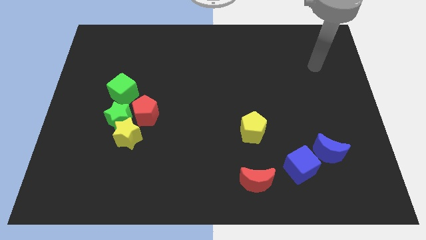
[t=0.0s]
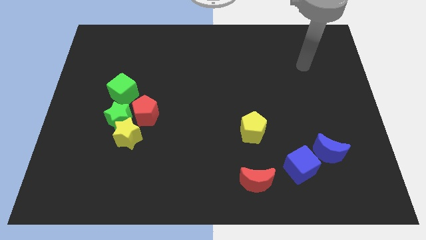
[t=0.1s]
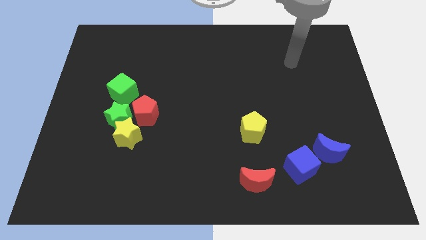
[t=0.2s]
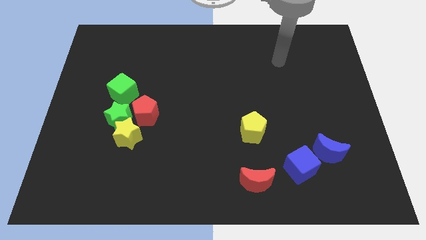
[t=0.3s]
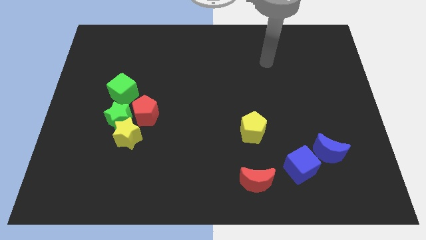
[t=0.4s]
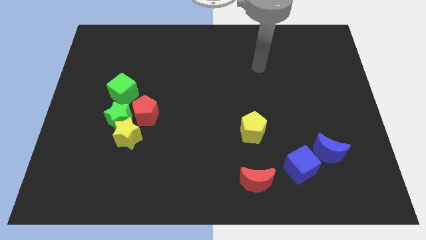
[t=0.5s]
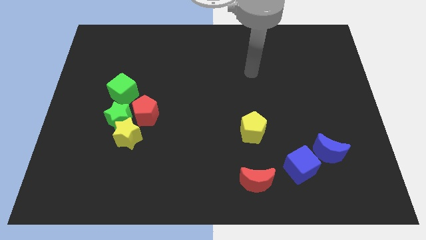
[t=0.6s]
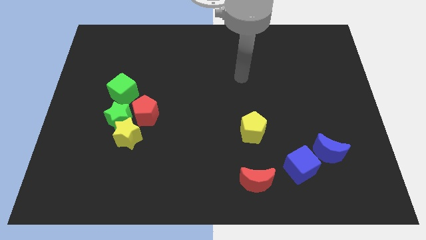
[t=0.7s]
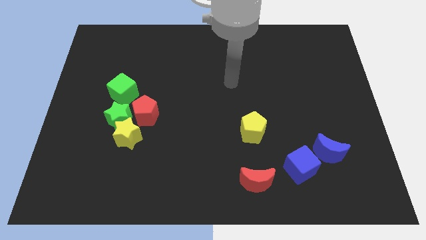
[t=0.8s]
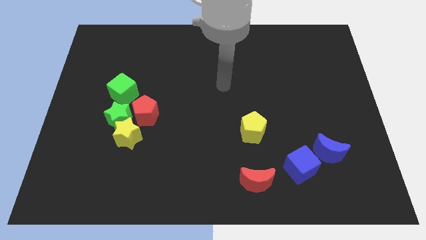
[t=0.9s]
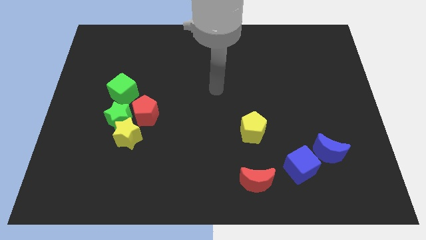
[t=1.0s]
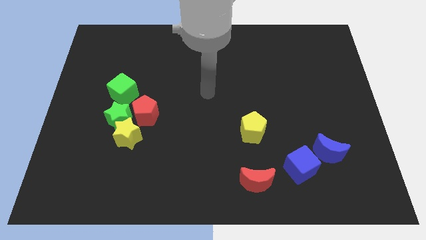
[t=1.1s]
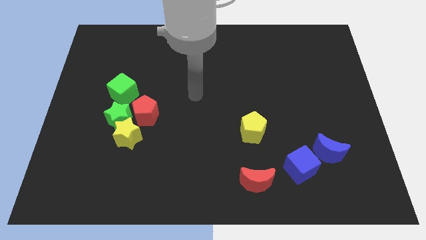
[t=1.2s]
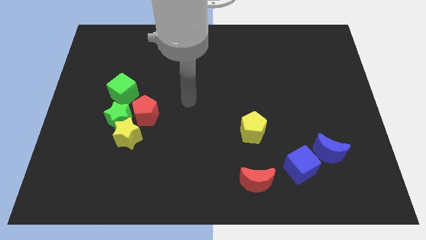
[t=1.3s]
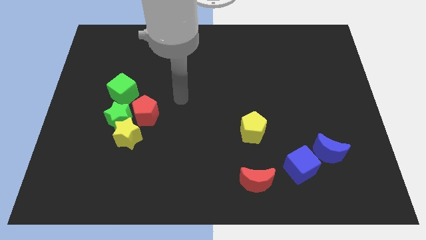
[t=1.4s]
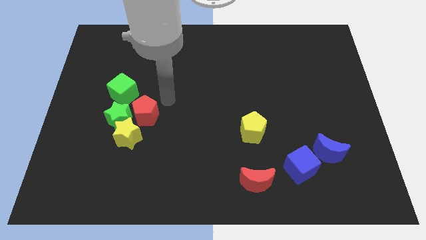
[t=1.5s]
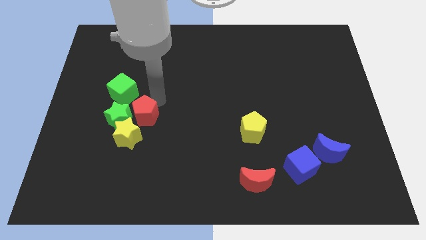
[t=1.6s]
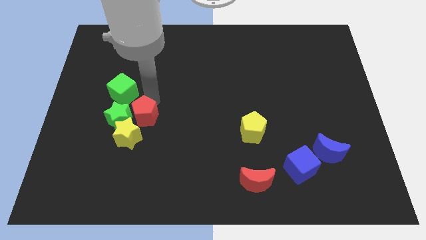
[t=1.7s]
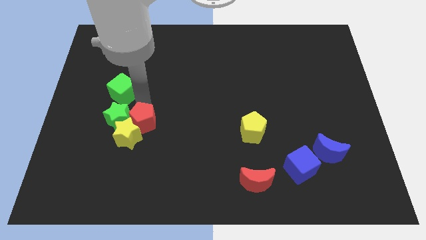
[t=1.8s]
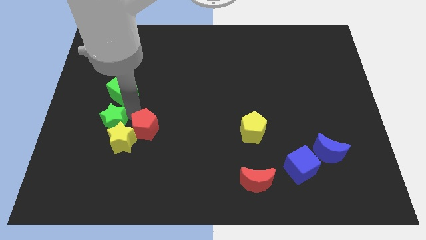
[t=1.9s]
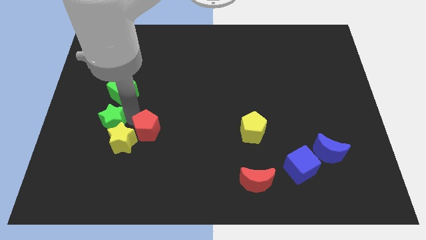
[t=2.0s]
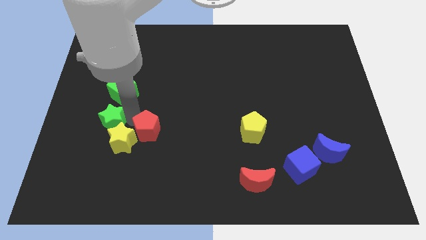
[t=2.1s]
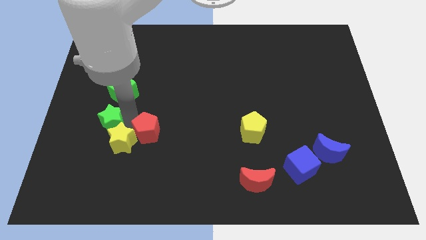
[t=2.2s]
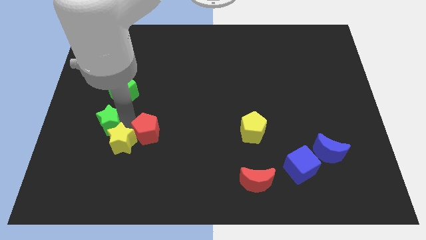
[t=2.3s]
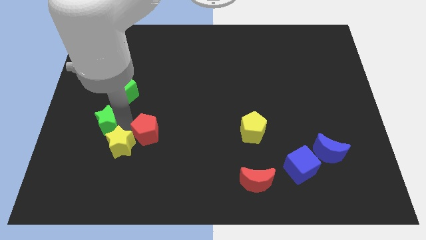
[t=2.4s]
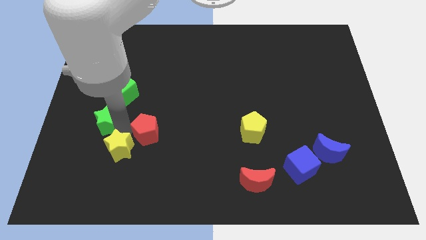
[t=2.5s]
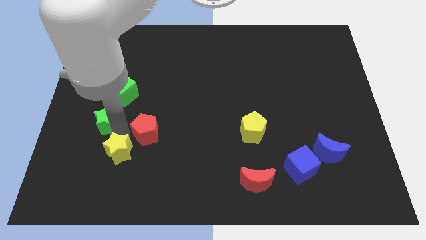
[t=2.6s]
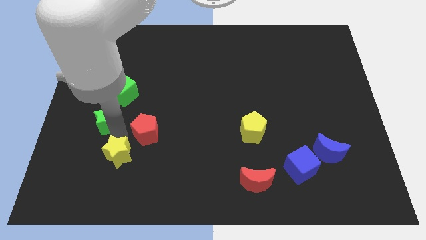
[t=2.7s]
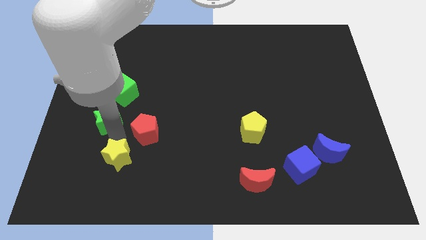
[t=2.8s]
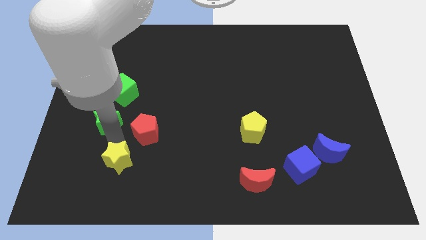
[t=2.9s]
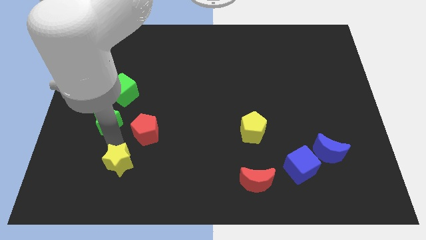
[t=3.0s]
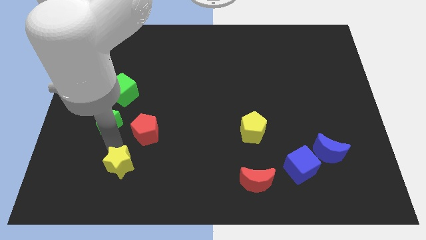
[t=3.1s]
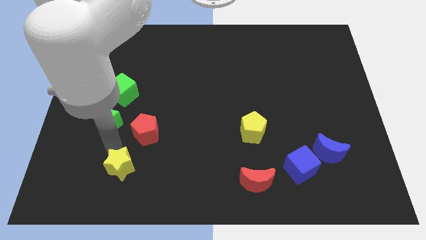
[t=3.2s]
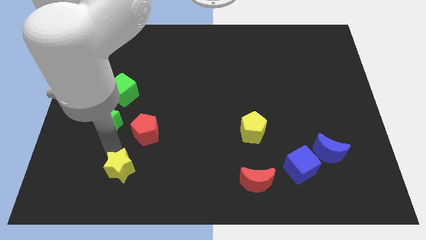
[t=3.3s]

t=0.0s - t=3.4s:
pull the yellow star apart from the green star and red pentagon

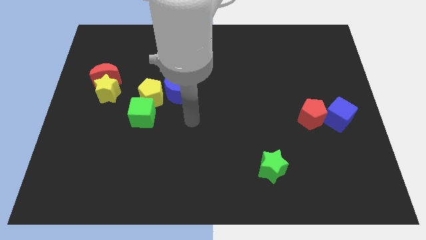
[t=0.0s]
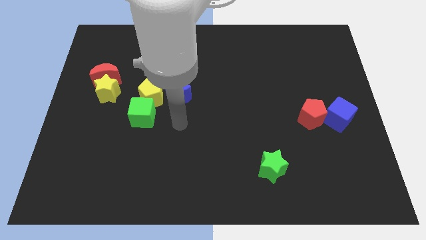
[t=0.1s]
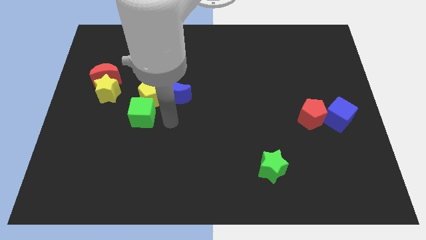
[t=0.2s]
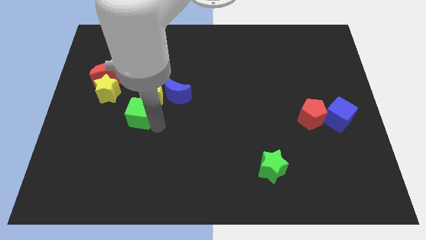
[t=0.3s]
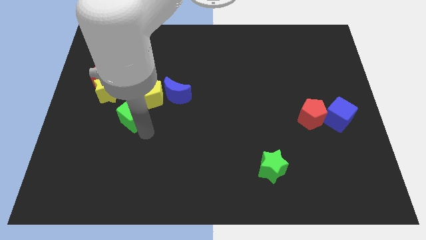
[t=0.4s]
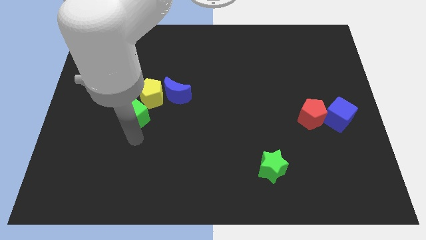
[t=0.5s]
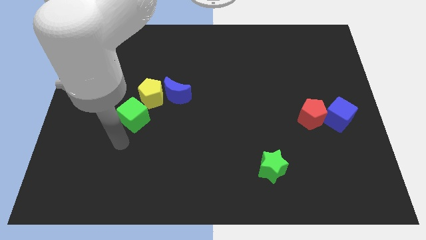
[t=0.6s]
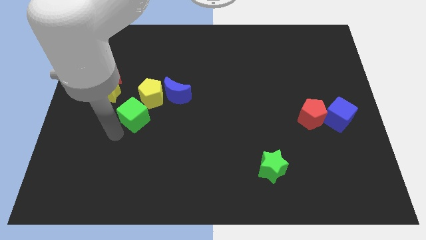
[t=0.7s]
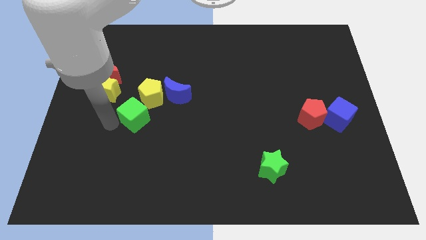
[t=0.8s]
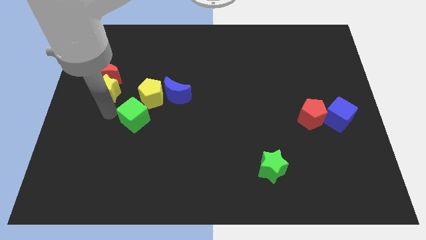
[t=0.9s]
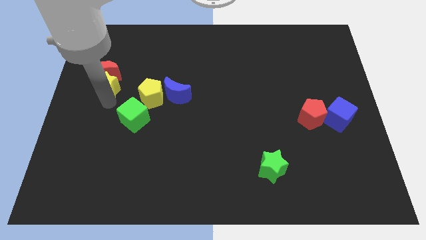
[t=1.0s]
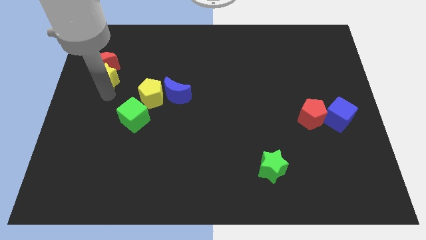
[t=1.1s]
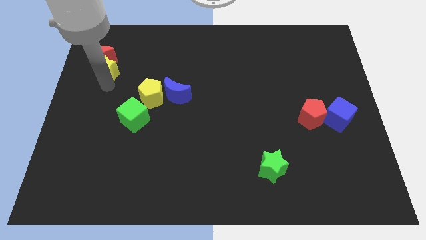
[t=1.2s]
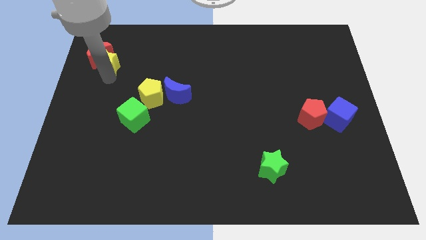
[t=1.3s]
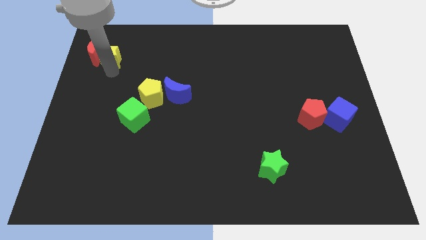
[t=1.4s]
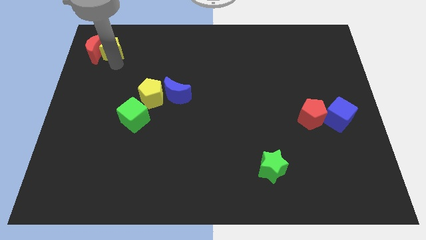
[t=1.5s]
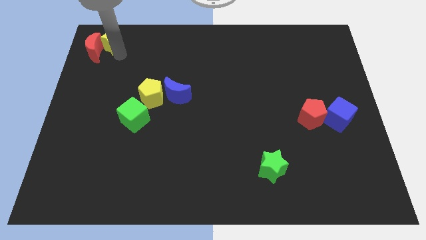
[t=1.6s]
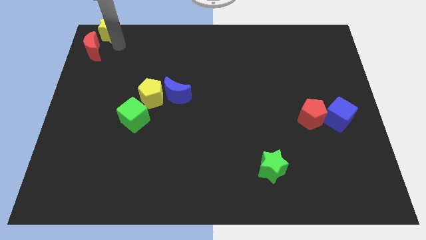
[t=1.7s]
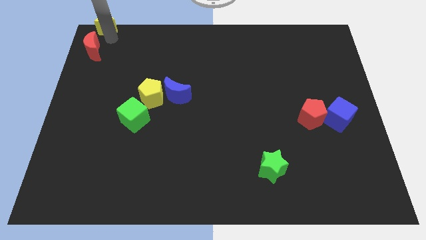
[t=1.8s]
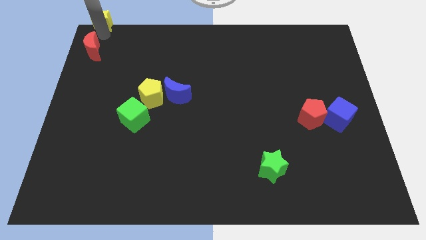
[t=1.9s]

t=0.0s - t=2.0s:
move the red moon away from the yellow star

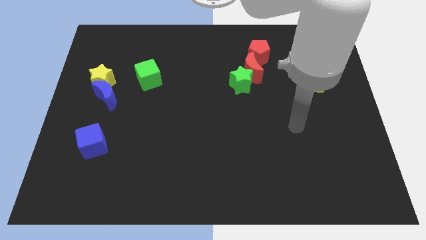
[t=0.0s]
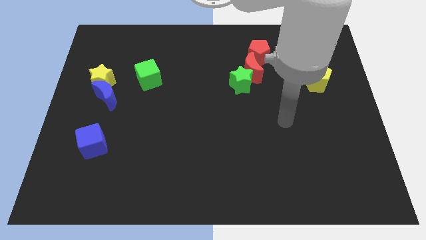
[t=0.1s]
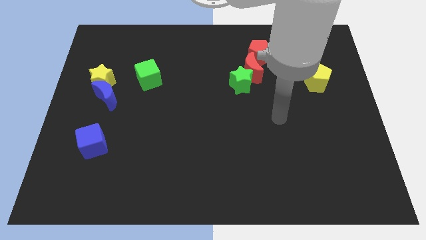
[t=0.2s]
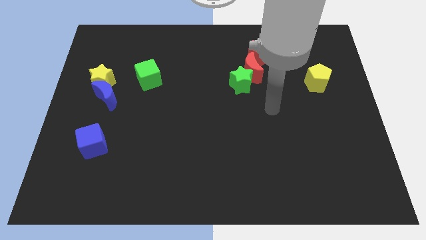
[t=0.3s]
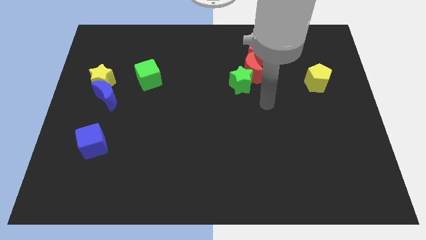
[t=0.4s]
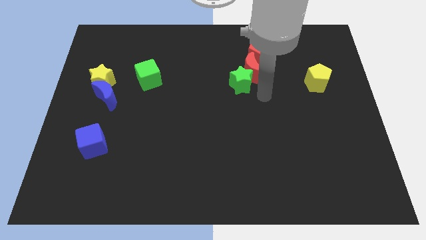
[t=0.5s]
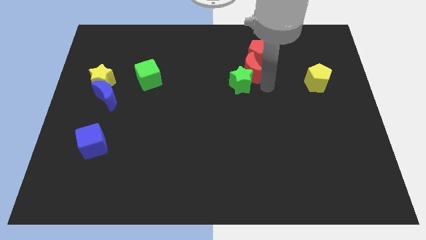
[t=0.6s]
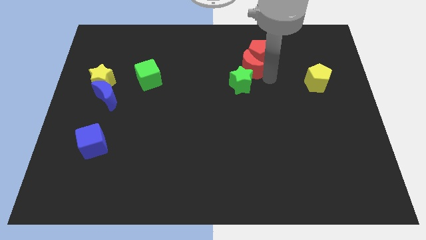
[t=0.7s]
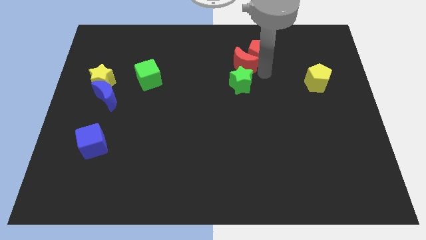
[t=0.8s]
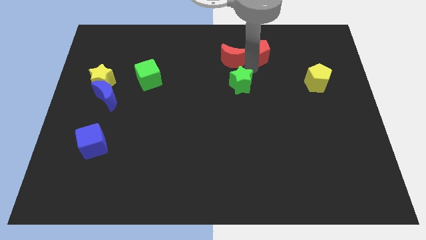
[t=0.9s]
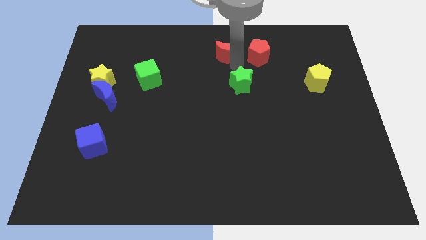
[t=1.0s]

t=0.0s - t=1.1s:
pull the green star apart from the red moon

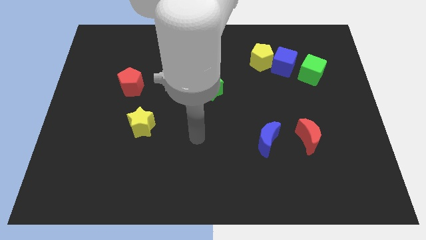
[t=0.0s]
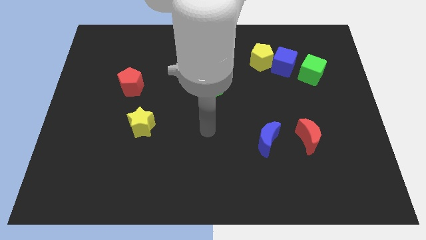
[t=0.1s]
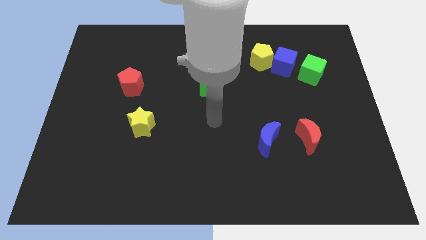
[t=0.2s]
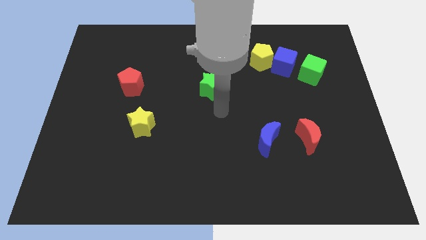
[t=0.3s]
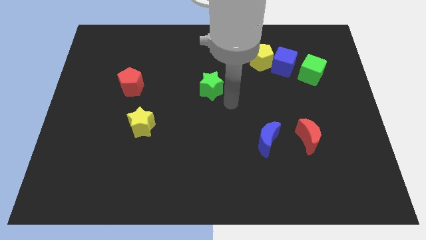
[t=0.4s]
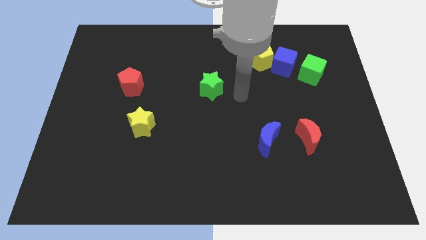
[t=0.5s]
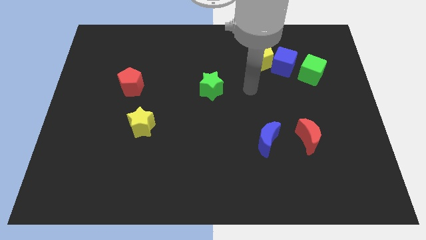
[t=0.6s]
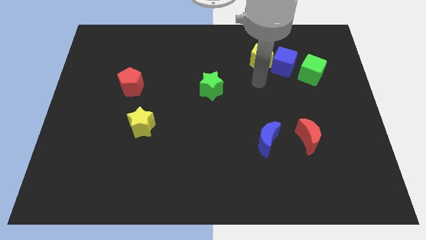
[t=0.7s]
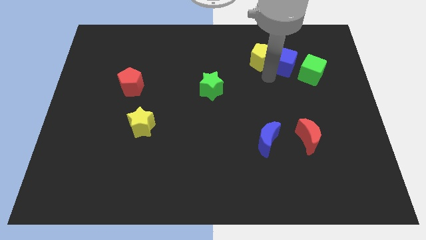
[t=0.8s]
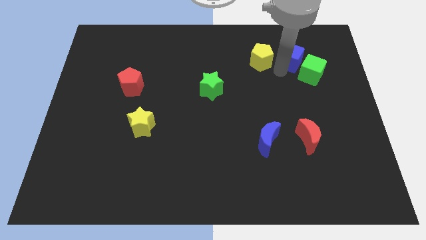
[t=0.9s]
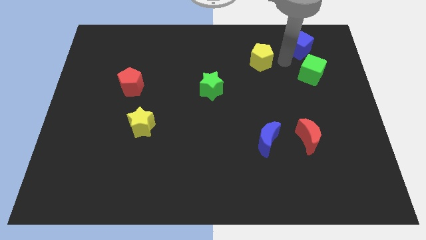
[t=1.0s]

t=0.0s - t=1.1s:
pull the yellow pentagon apart from the blue cube

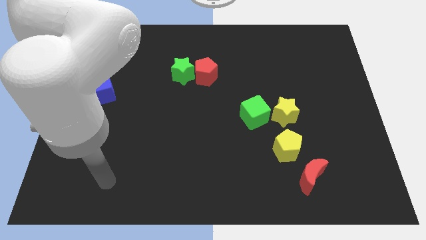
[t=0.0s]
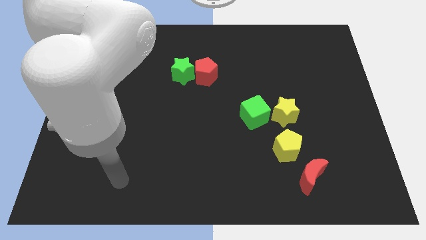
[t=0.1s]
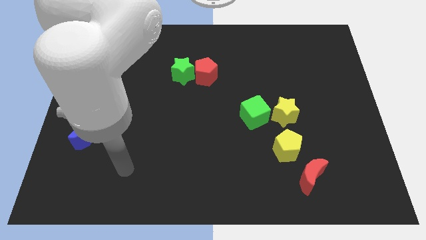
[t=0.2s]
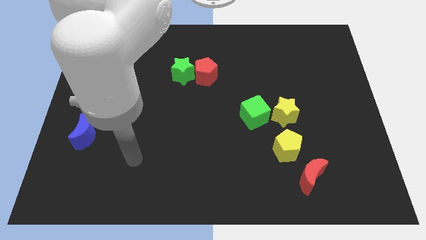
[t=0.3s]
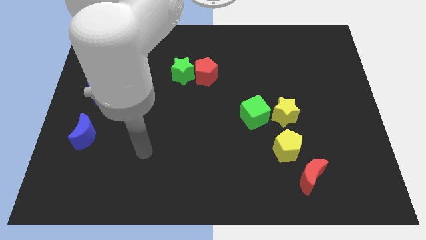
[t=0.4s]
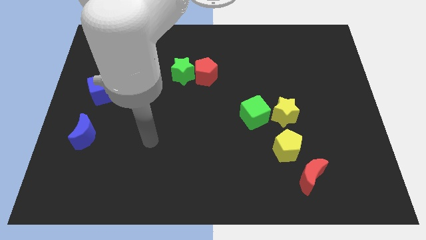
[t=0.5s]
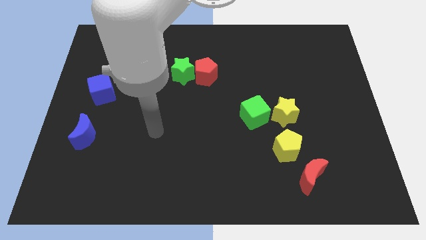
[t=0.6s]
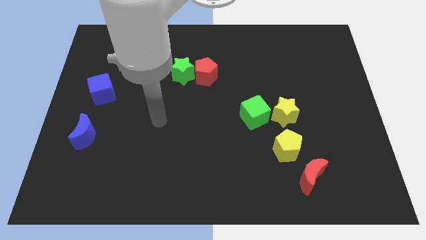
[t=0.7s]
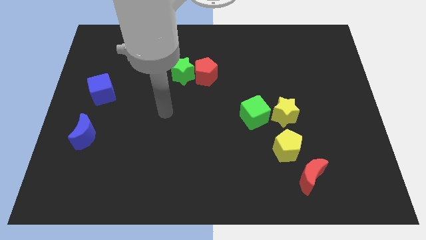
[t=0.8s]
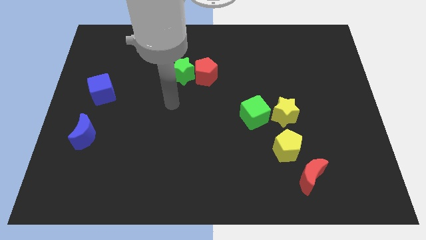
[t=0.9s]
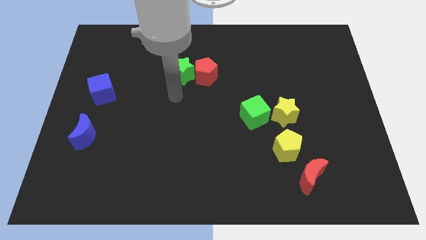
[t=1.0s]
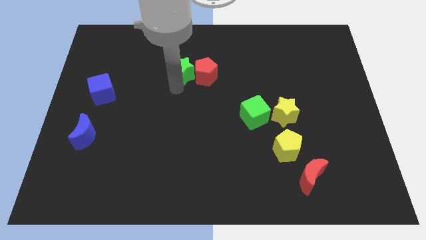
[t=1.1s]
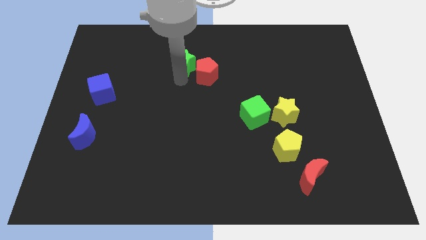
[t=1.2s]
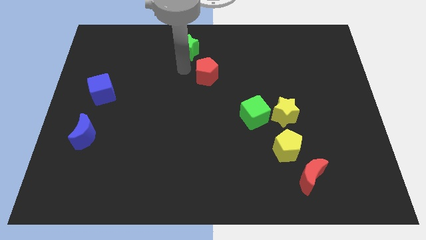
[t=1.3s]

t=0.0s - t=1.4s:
pull the red pentagon apart from the green star

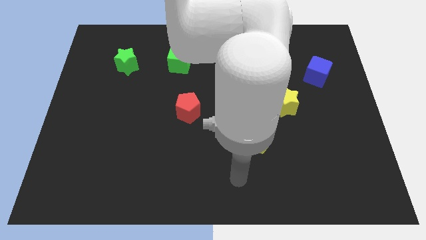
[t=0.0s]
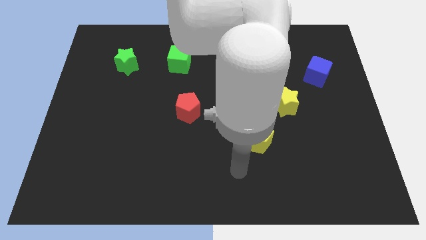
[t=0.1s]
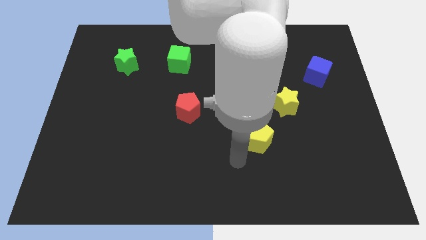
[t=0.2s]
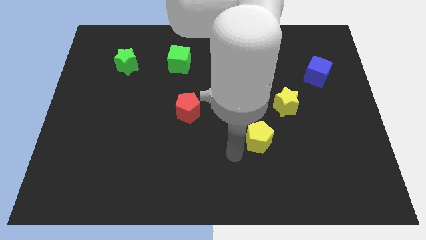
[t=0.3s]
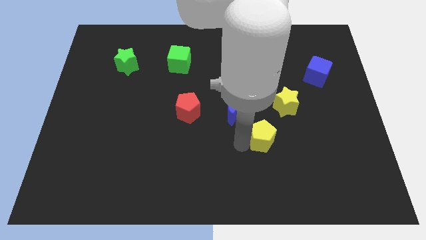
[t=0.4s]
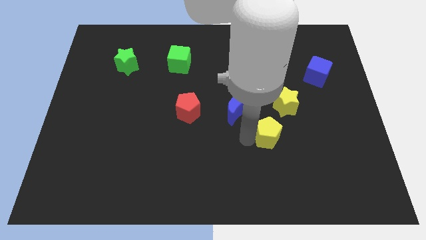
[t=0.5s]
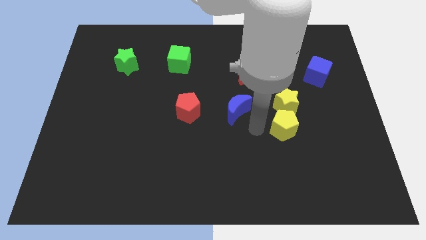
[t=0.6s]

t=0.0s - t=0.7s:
pull the blue moon apart from the yellow pentagon
